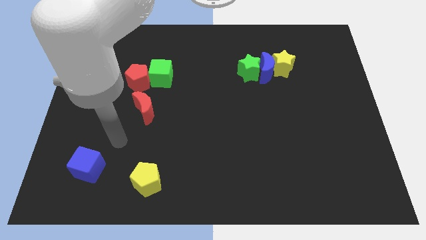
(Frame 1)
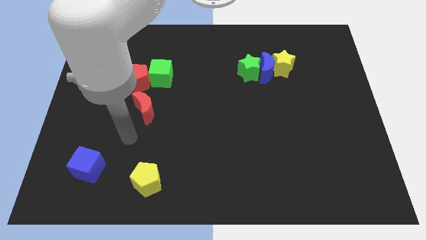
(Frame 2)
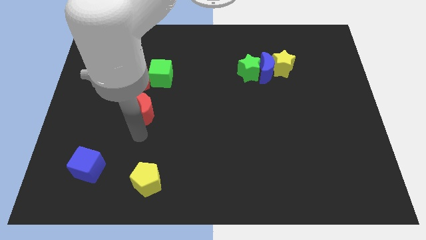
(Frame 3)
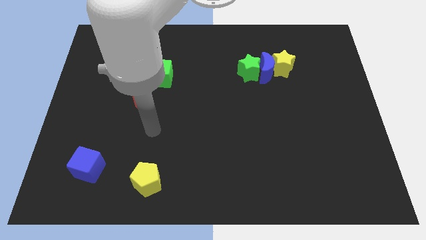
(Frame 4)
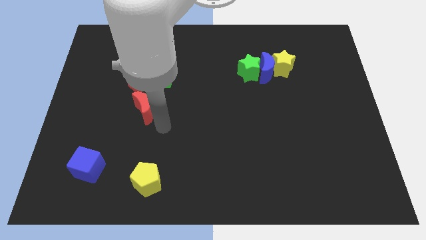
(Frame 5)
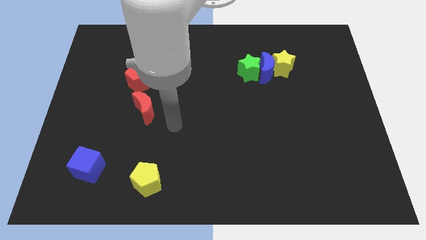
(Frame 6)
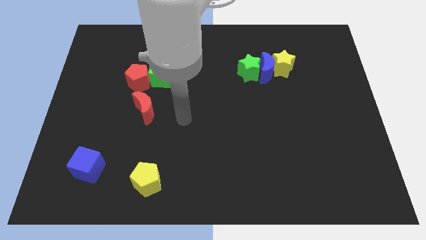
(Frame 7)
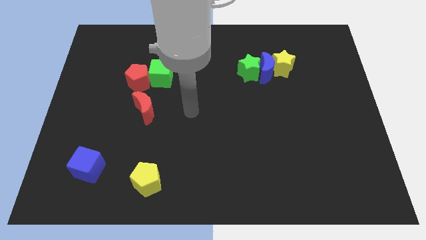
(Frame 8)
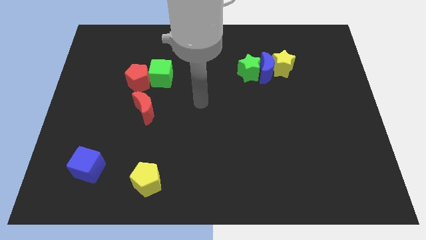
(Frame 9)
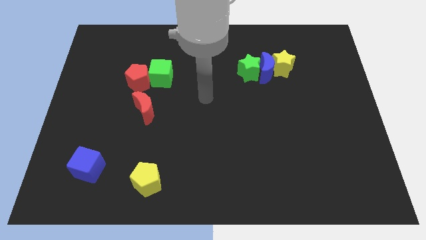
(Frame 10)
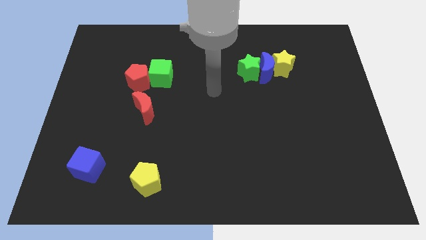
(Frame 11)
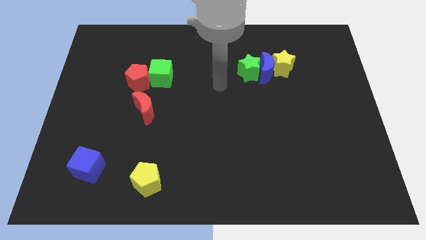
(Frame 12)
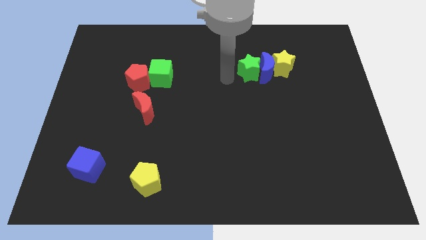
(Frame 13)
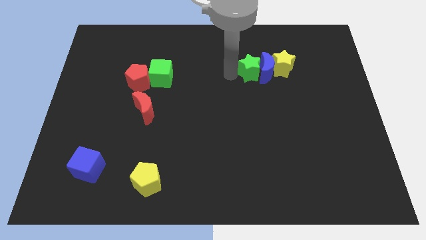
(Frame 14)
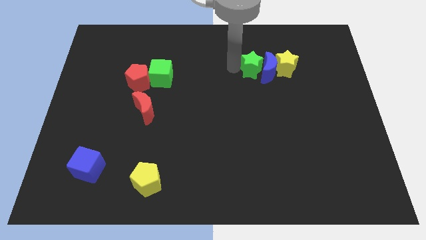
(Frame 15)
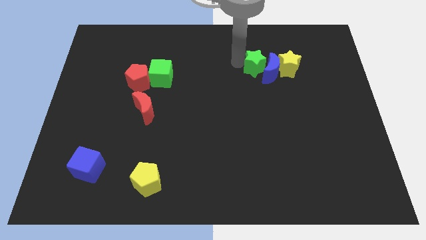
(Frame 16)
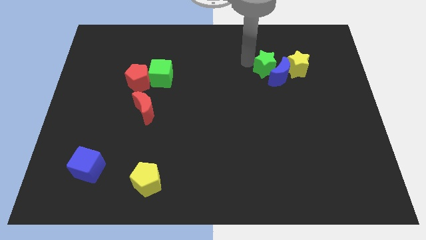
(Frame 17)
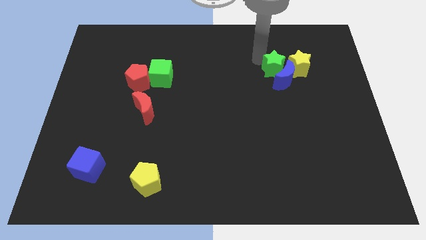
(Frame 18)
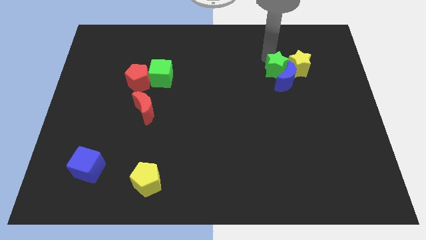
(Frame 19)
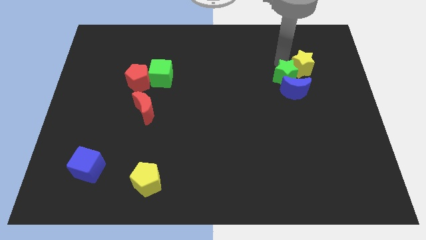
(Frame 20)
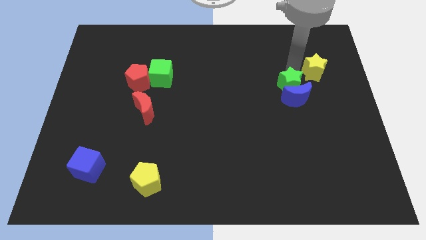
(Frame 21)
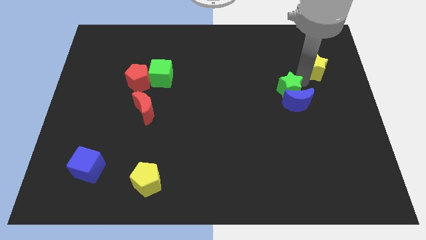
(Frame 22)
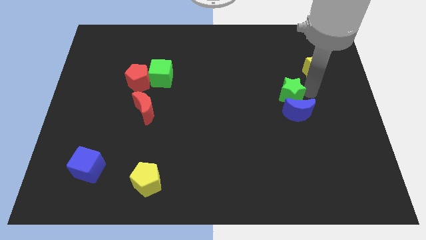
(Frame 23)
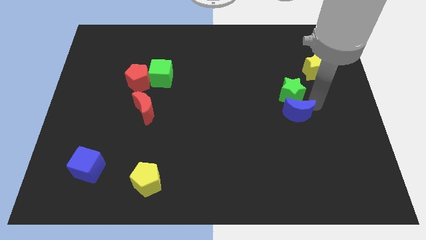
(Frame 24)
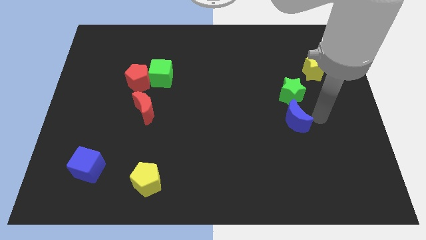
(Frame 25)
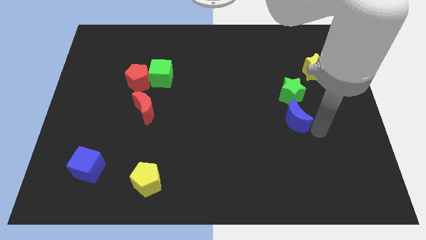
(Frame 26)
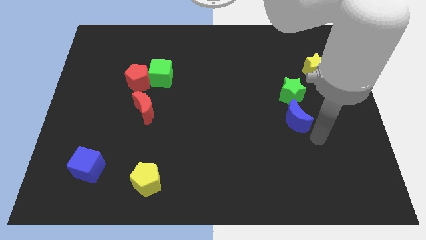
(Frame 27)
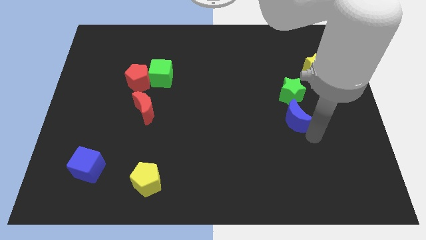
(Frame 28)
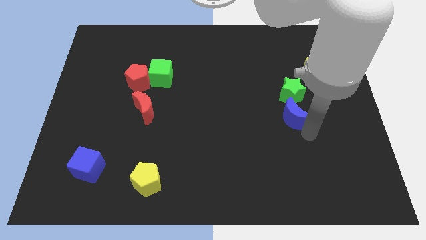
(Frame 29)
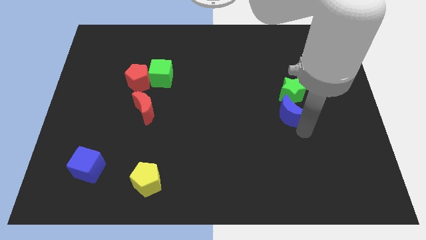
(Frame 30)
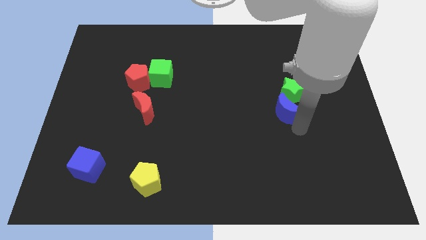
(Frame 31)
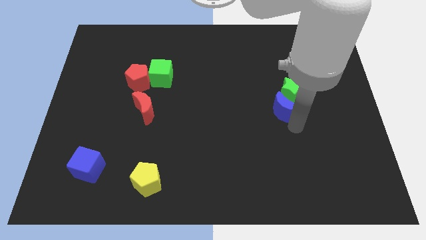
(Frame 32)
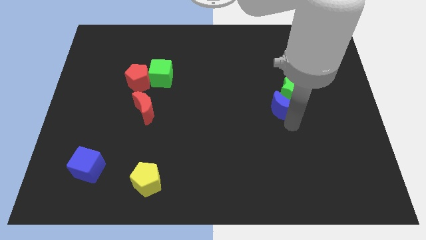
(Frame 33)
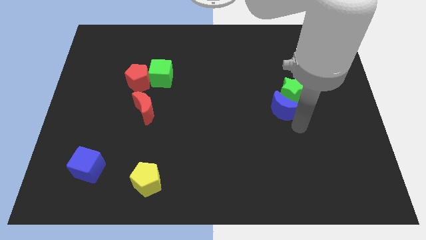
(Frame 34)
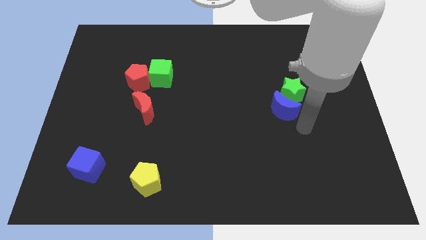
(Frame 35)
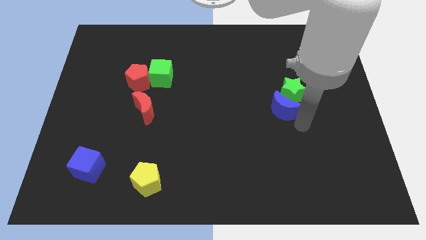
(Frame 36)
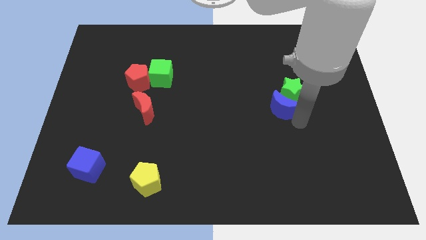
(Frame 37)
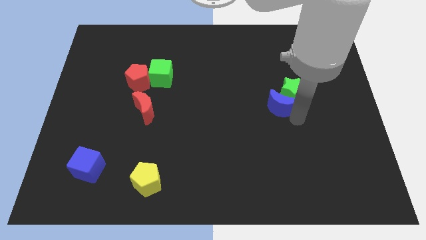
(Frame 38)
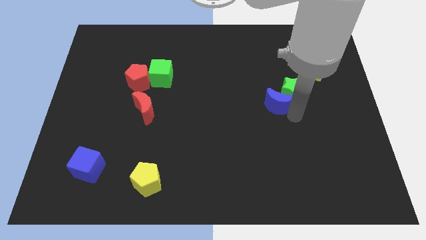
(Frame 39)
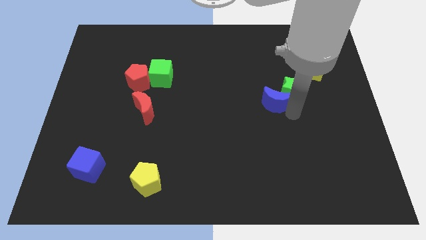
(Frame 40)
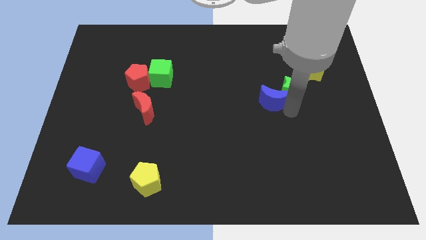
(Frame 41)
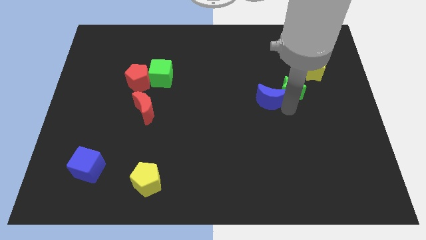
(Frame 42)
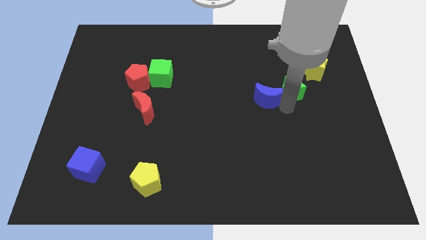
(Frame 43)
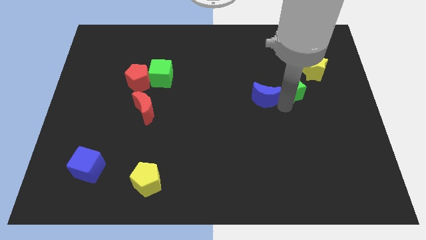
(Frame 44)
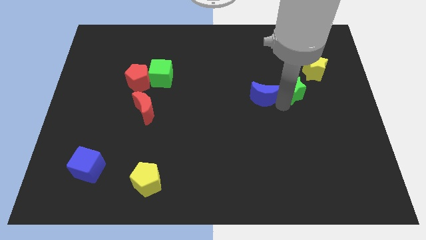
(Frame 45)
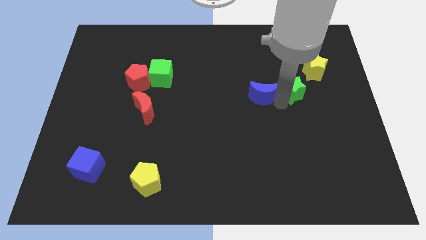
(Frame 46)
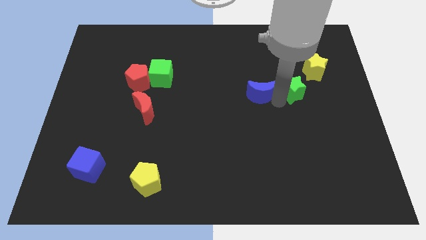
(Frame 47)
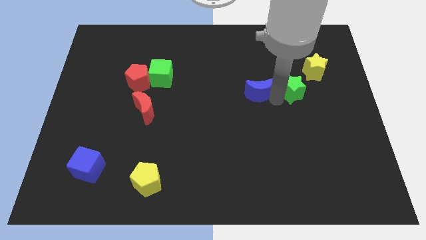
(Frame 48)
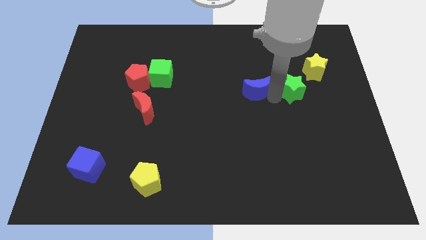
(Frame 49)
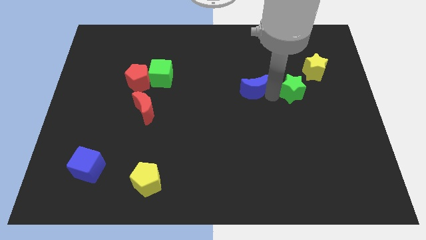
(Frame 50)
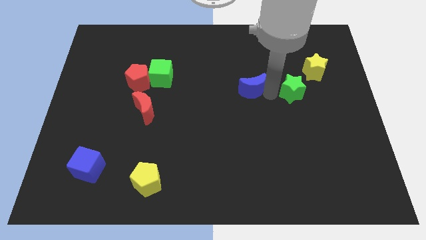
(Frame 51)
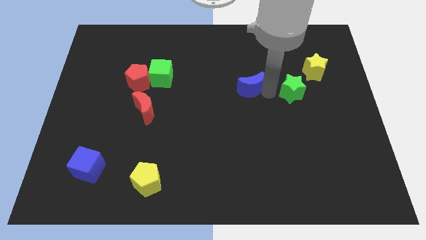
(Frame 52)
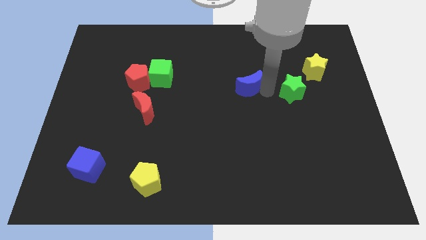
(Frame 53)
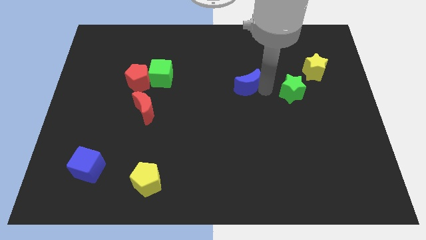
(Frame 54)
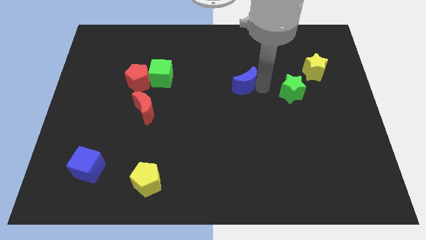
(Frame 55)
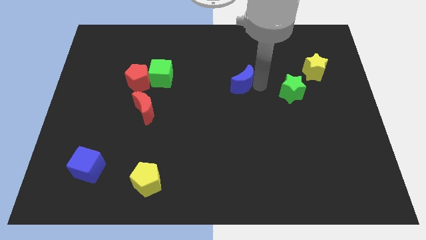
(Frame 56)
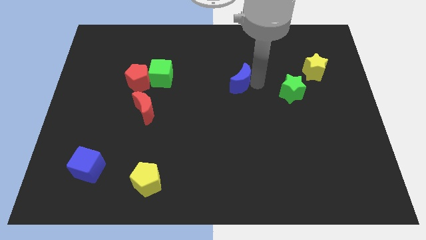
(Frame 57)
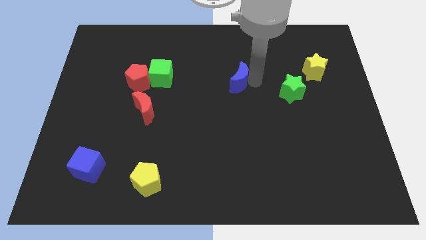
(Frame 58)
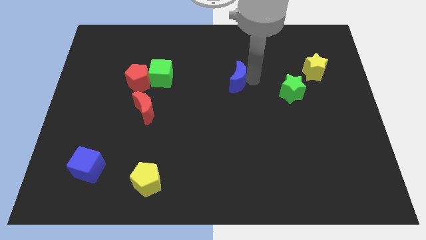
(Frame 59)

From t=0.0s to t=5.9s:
move the blue moon a little to the left

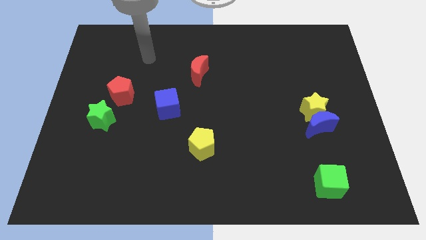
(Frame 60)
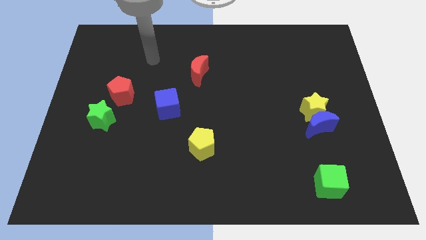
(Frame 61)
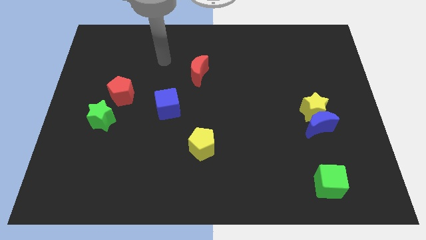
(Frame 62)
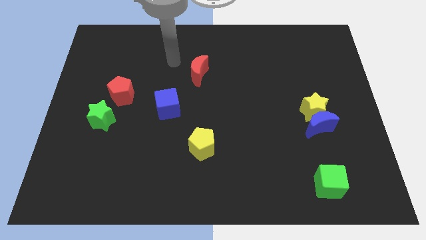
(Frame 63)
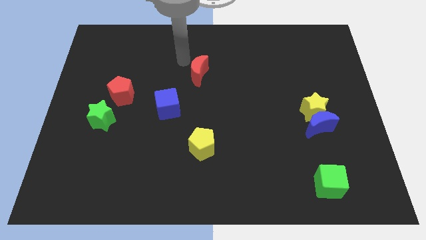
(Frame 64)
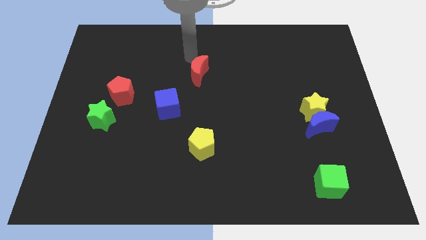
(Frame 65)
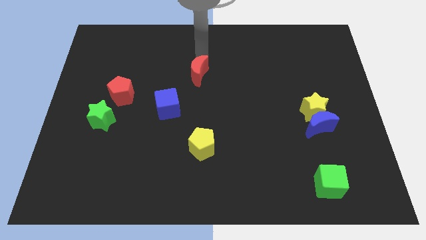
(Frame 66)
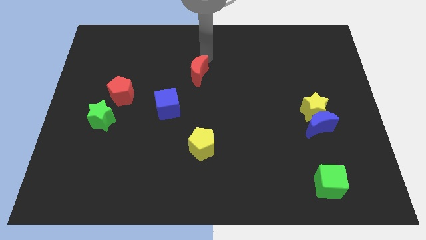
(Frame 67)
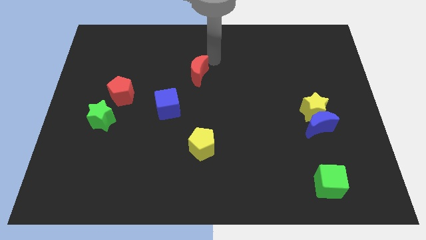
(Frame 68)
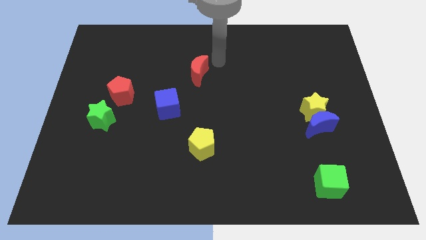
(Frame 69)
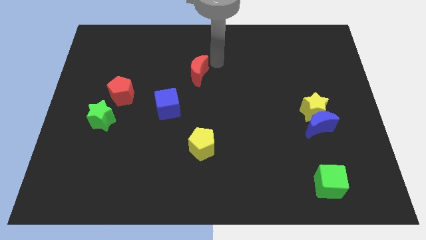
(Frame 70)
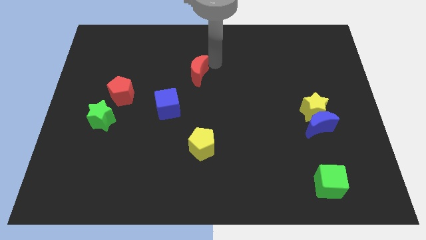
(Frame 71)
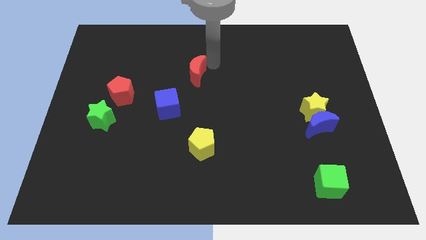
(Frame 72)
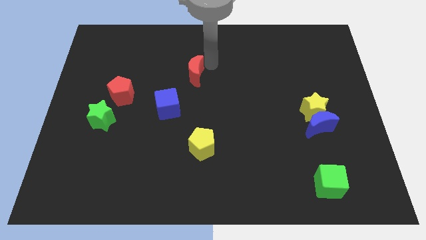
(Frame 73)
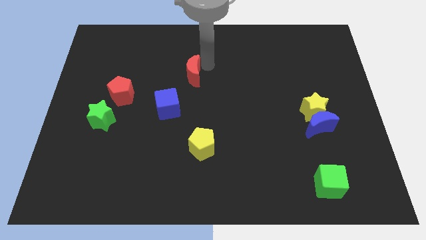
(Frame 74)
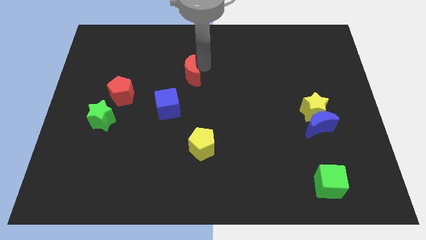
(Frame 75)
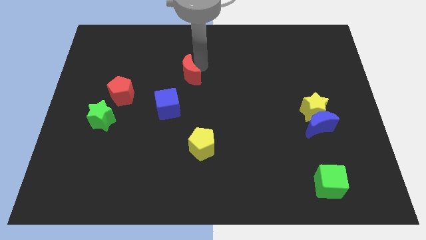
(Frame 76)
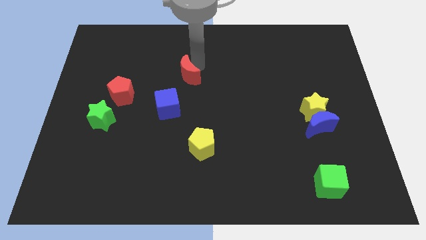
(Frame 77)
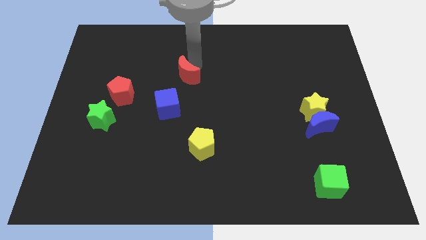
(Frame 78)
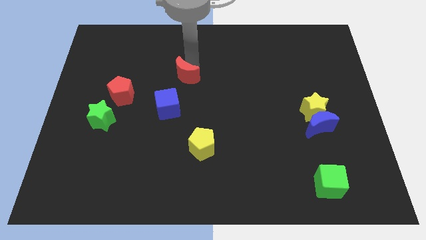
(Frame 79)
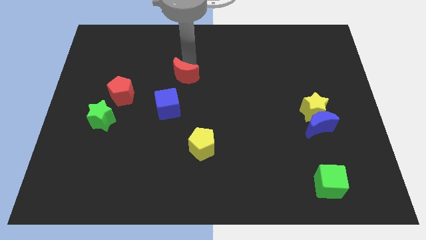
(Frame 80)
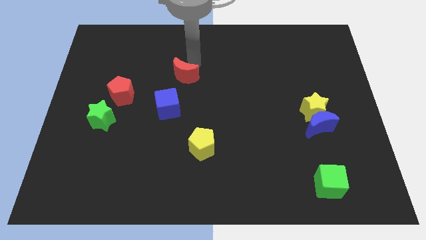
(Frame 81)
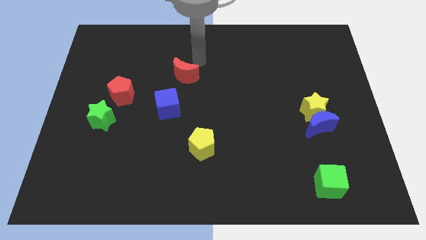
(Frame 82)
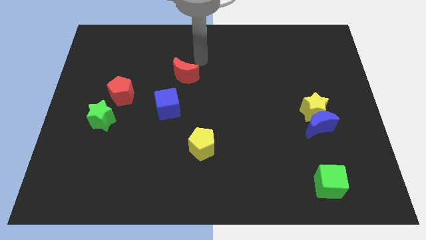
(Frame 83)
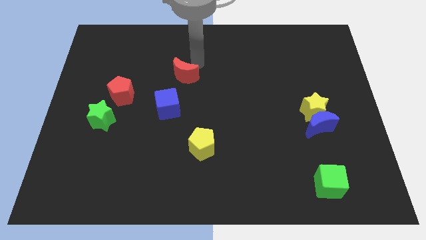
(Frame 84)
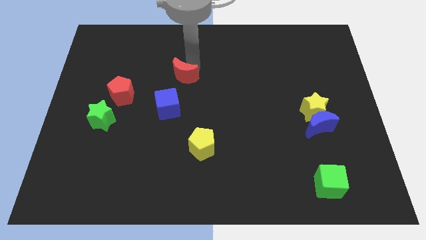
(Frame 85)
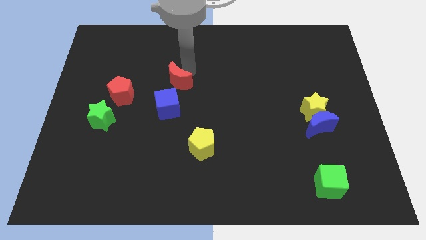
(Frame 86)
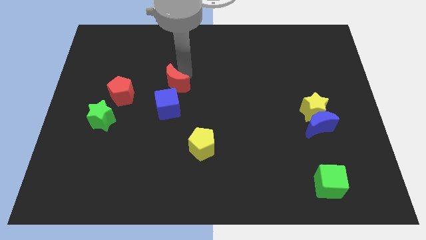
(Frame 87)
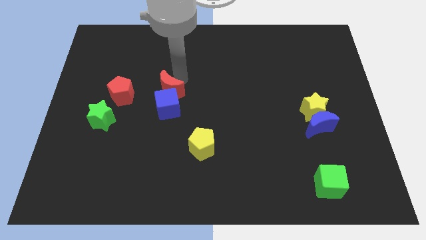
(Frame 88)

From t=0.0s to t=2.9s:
slide the red moon downwards and to the left a little bit
